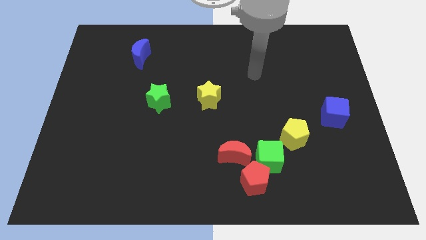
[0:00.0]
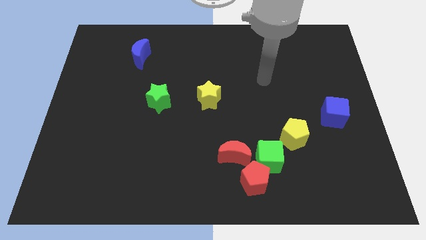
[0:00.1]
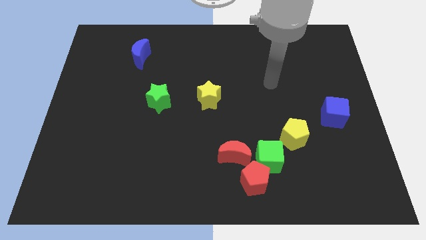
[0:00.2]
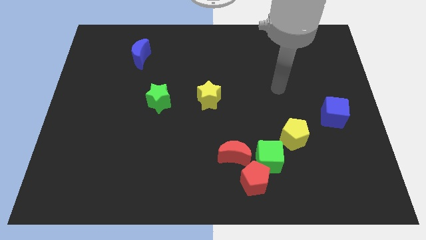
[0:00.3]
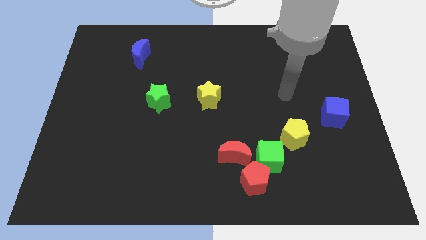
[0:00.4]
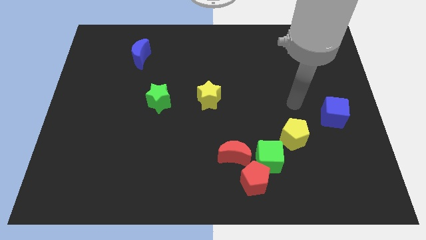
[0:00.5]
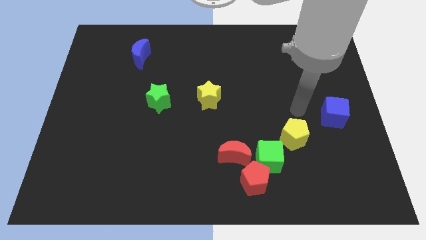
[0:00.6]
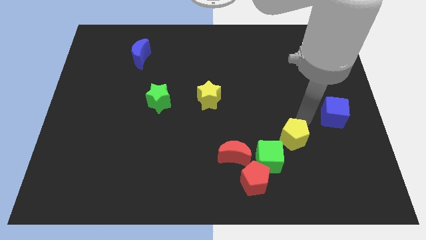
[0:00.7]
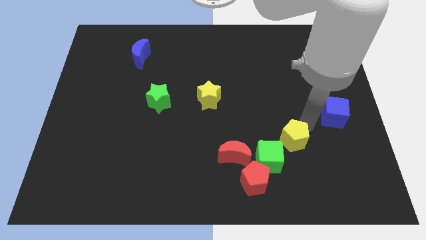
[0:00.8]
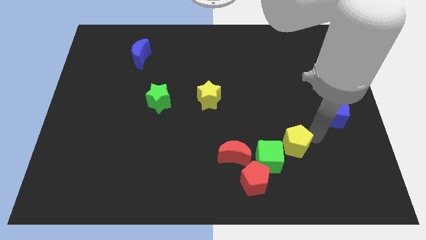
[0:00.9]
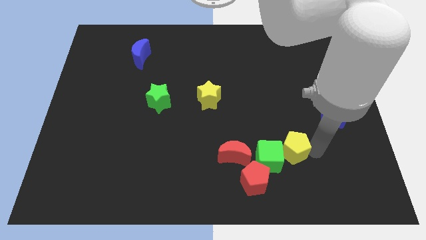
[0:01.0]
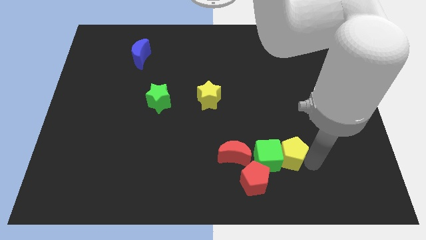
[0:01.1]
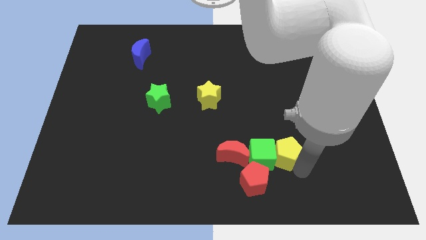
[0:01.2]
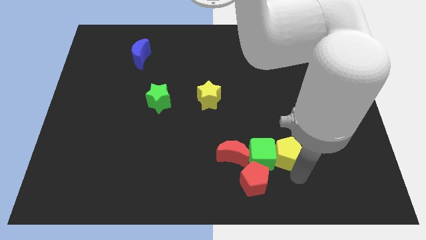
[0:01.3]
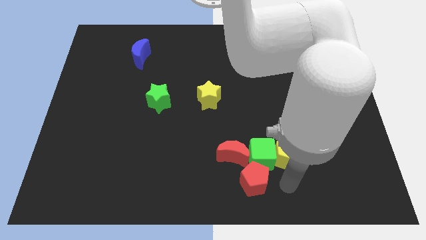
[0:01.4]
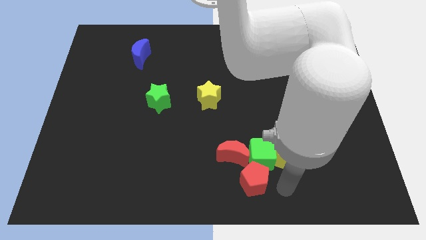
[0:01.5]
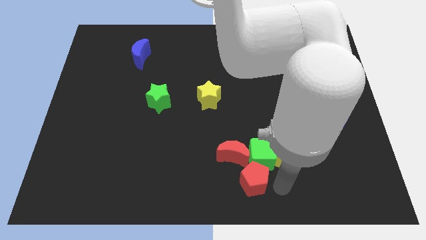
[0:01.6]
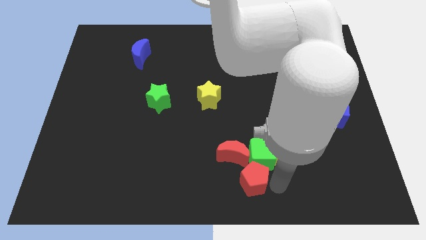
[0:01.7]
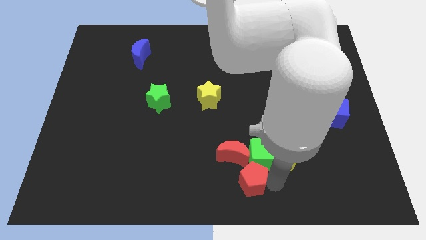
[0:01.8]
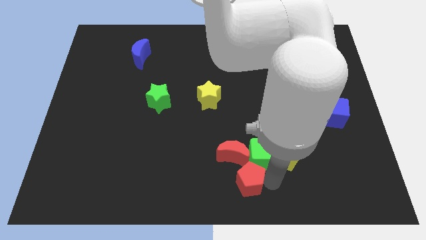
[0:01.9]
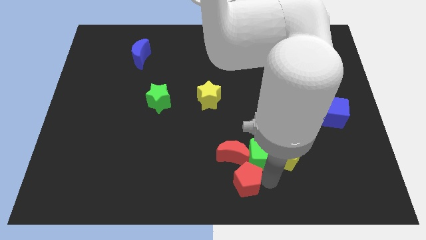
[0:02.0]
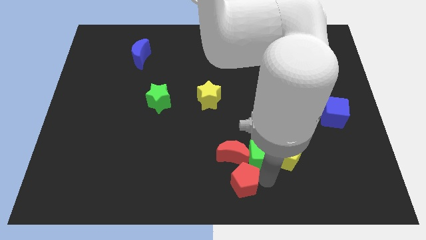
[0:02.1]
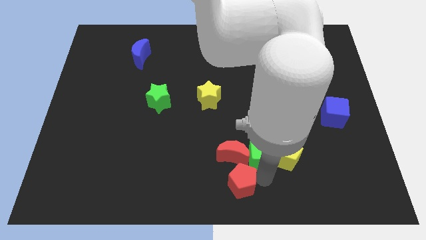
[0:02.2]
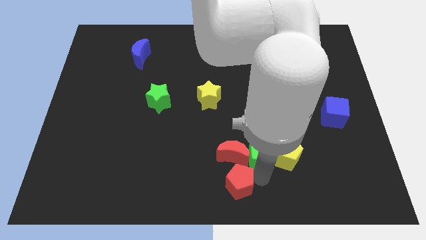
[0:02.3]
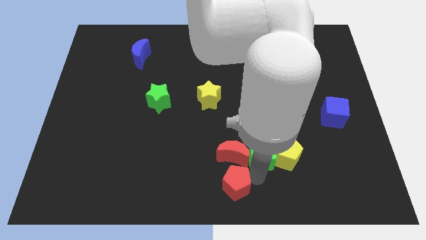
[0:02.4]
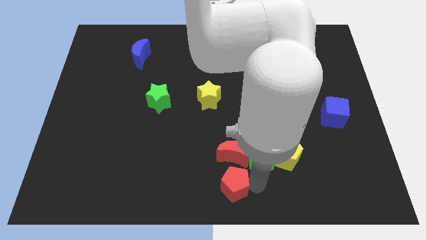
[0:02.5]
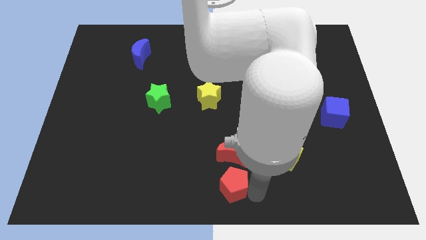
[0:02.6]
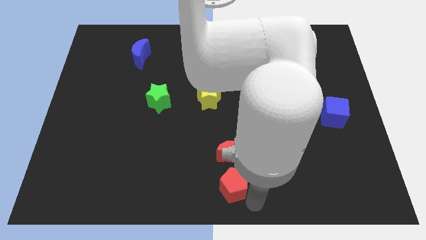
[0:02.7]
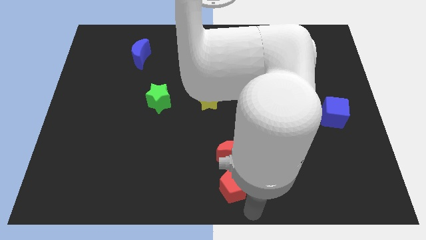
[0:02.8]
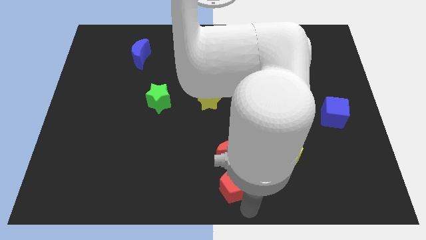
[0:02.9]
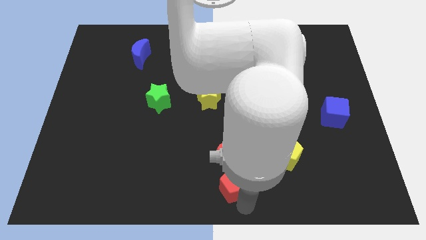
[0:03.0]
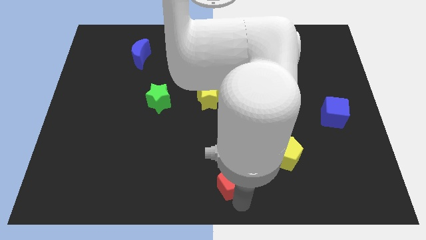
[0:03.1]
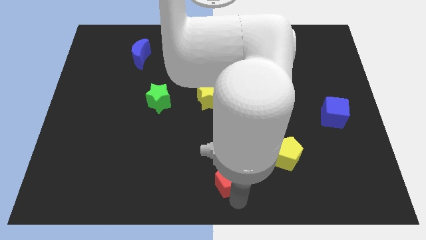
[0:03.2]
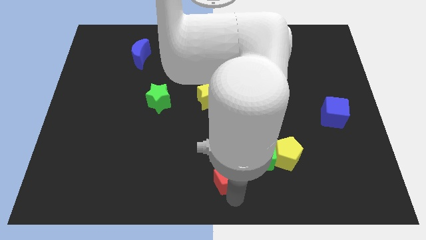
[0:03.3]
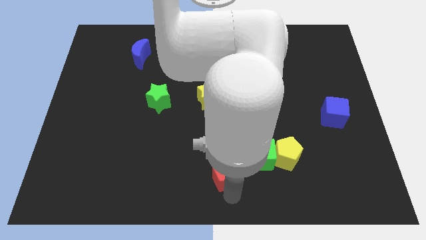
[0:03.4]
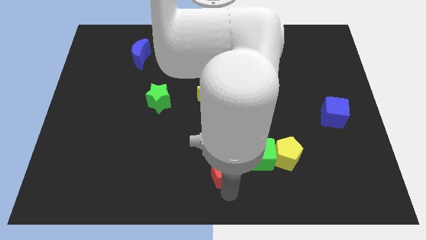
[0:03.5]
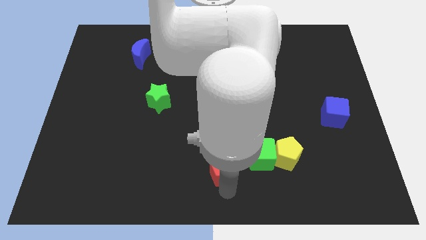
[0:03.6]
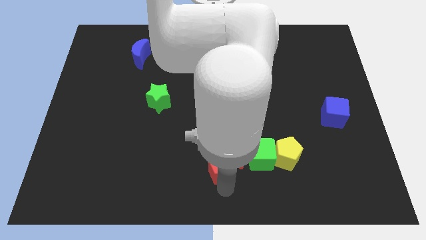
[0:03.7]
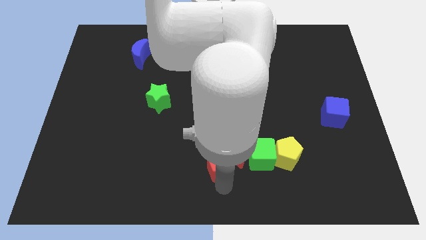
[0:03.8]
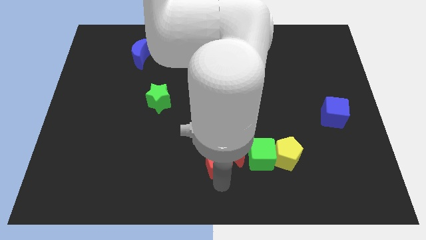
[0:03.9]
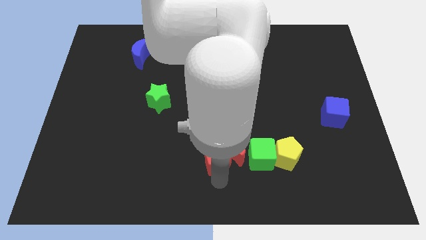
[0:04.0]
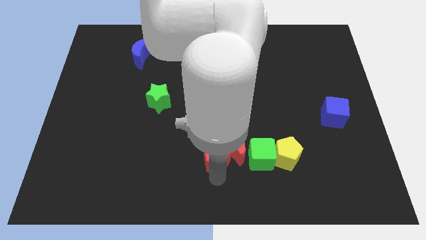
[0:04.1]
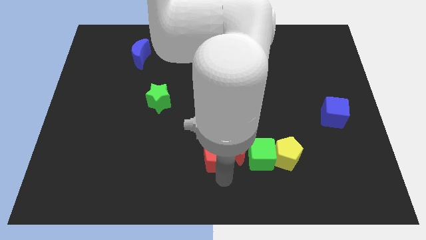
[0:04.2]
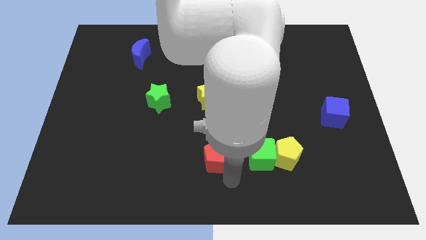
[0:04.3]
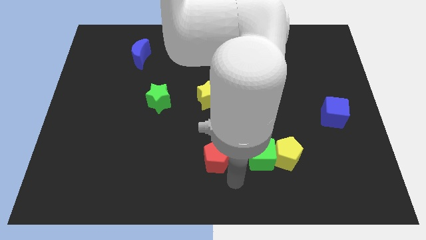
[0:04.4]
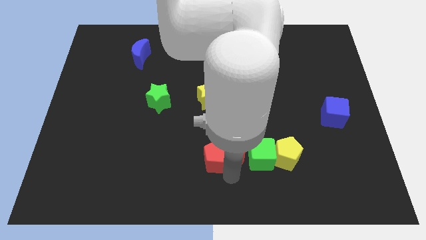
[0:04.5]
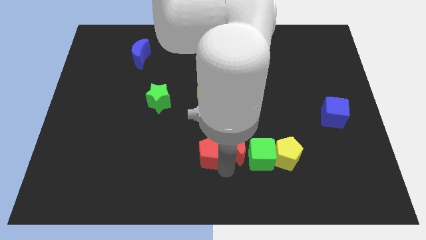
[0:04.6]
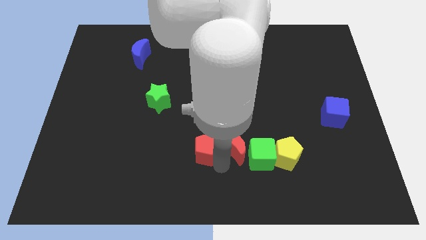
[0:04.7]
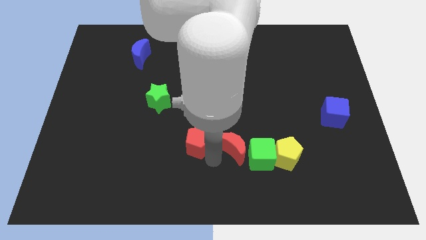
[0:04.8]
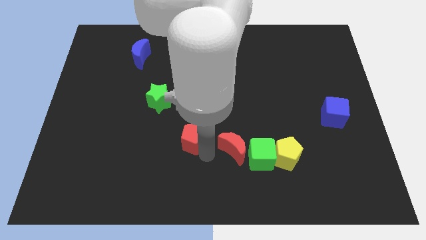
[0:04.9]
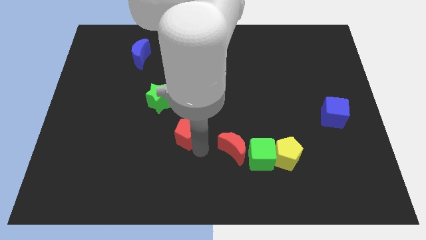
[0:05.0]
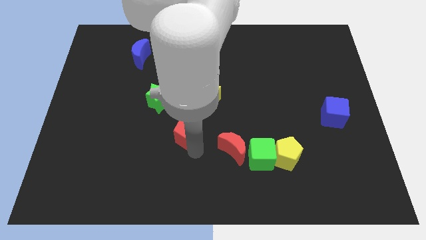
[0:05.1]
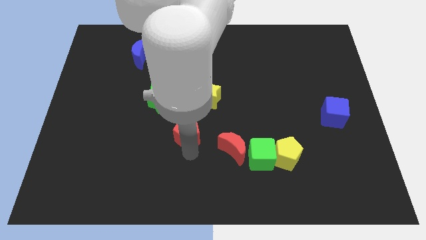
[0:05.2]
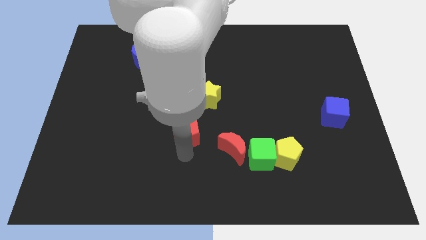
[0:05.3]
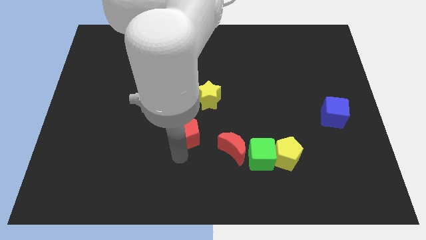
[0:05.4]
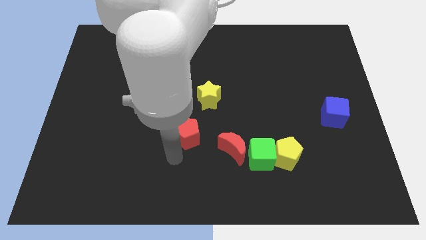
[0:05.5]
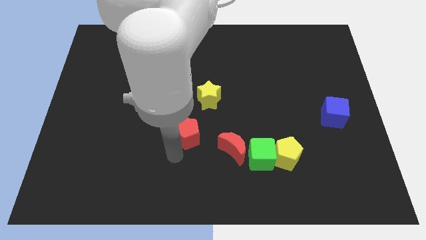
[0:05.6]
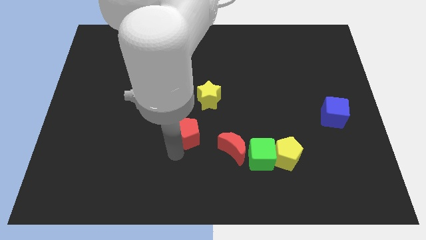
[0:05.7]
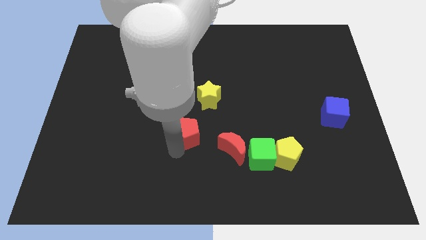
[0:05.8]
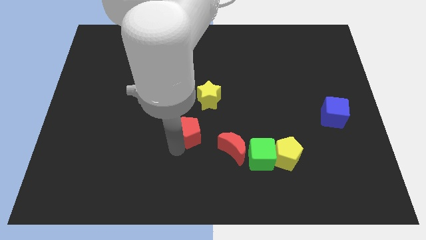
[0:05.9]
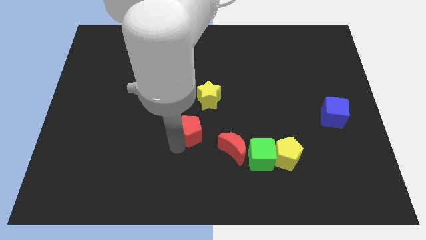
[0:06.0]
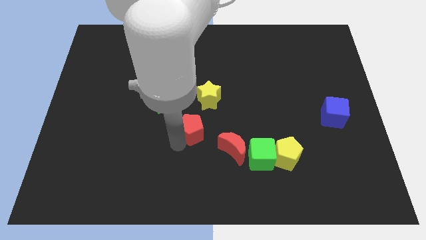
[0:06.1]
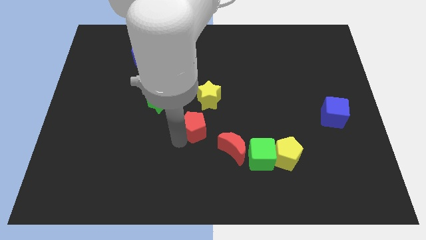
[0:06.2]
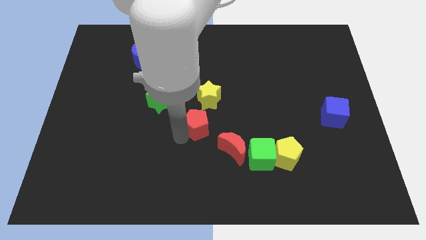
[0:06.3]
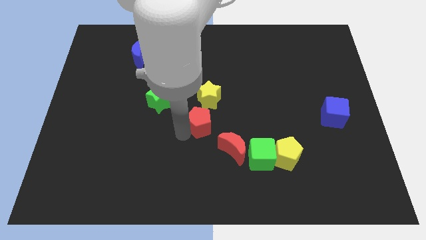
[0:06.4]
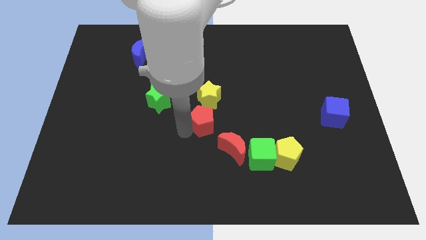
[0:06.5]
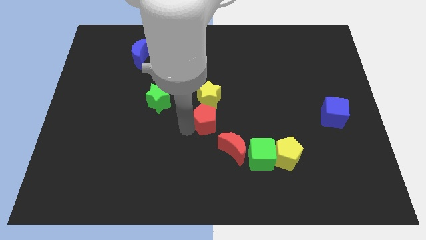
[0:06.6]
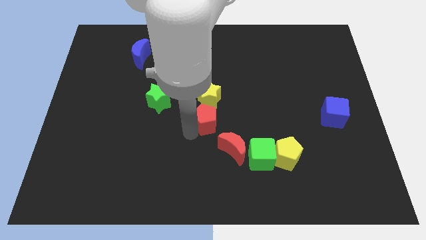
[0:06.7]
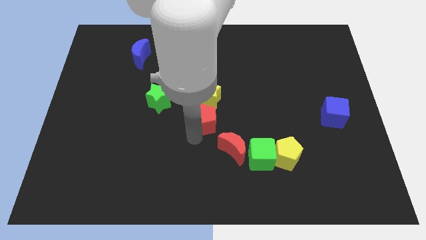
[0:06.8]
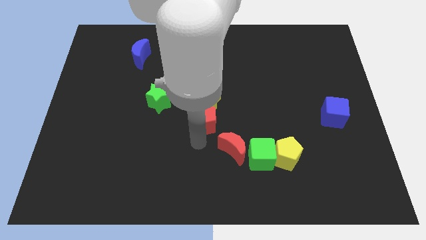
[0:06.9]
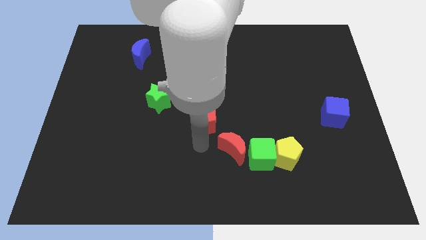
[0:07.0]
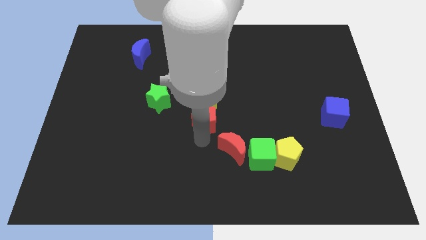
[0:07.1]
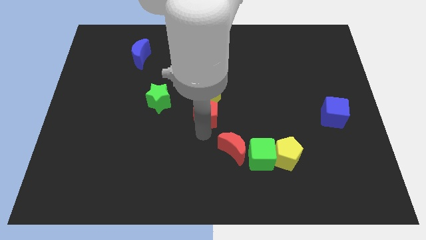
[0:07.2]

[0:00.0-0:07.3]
push the red pentagon towards the yellow star
